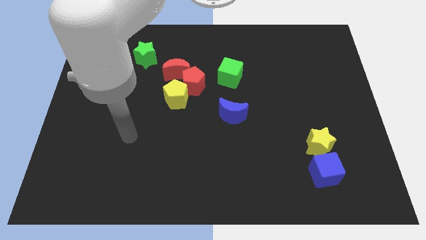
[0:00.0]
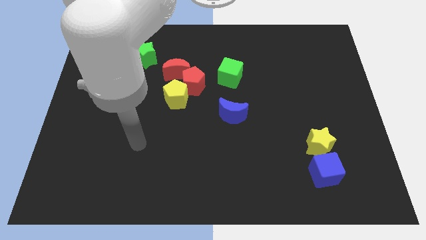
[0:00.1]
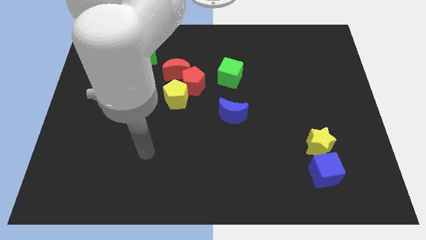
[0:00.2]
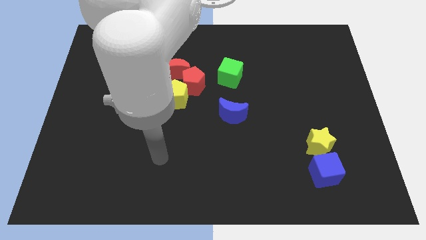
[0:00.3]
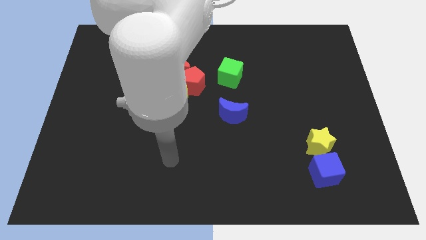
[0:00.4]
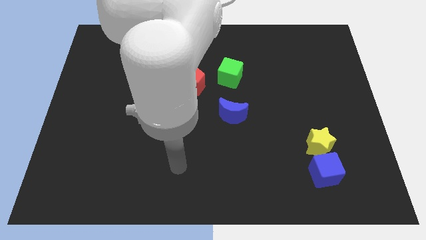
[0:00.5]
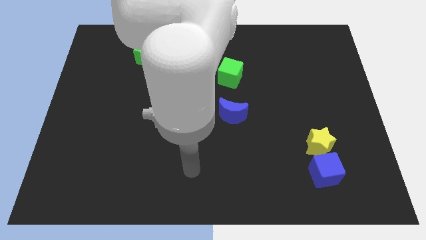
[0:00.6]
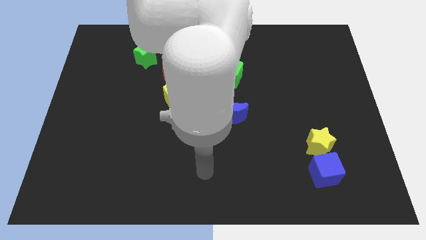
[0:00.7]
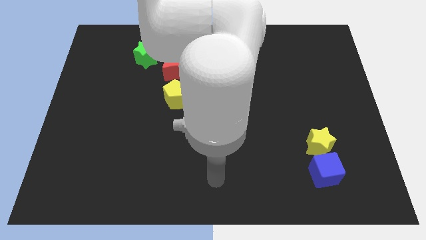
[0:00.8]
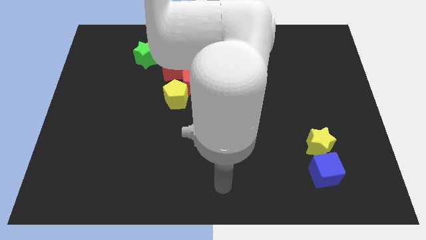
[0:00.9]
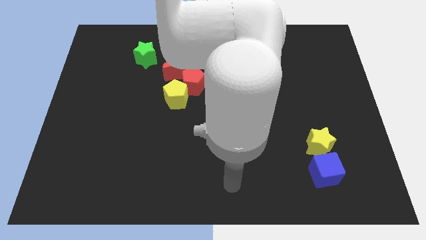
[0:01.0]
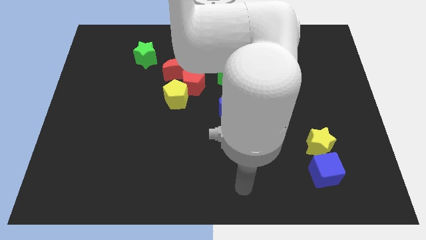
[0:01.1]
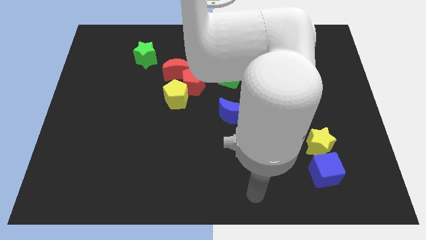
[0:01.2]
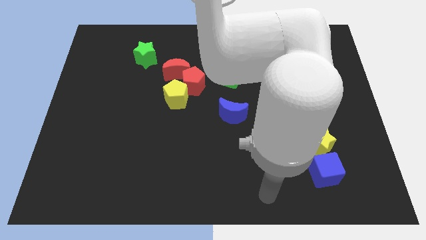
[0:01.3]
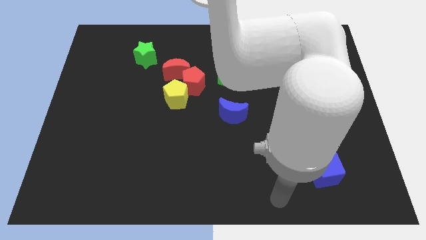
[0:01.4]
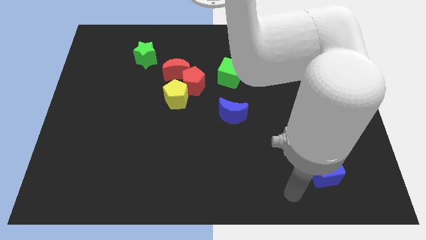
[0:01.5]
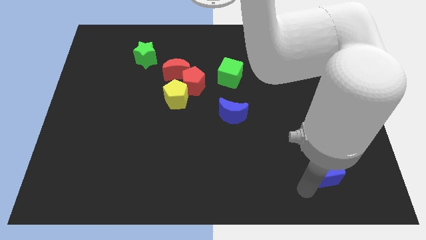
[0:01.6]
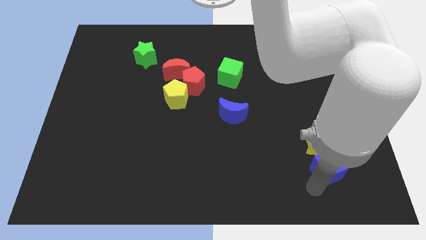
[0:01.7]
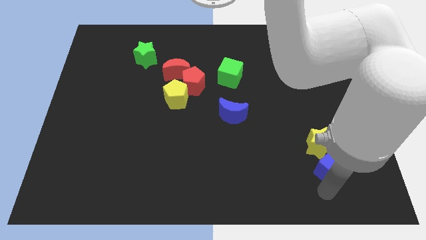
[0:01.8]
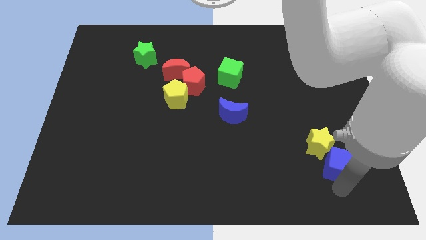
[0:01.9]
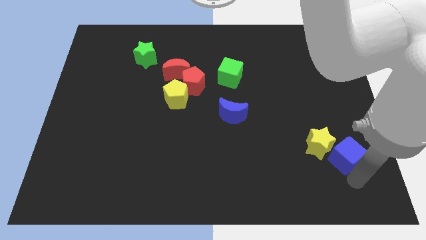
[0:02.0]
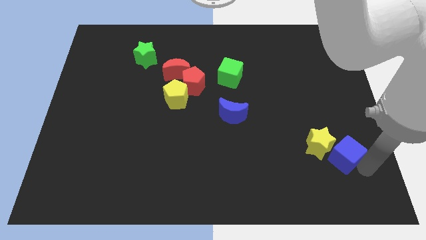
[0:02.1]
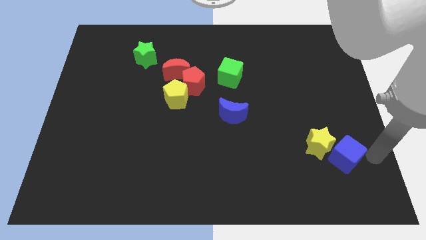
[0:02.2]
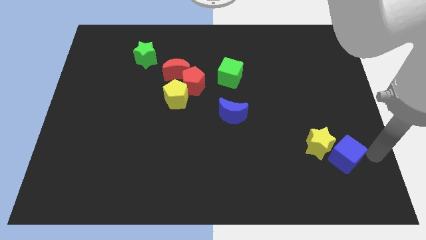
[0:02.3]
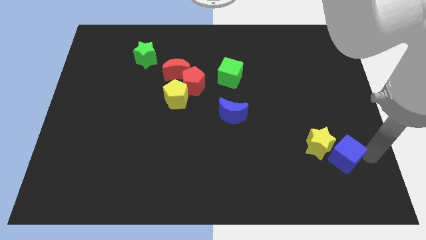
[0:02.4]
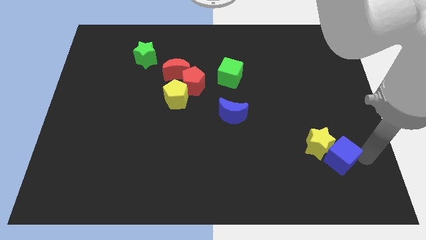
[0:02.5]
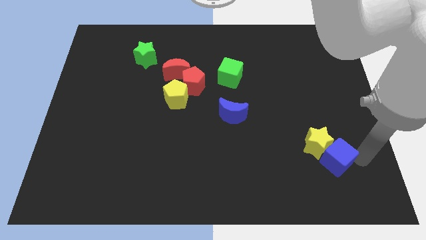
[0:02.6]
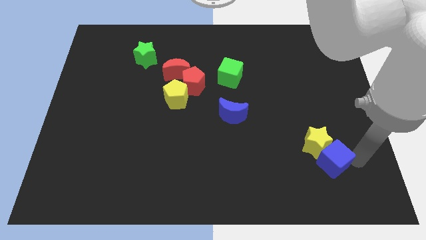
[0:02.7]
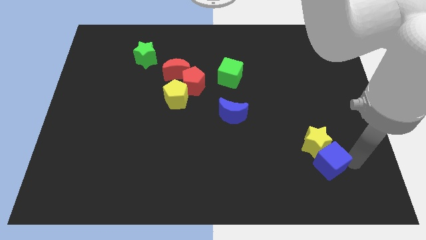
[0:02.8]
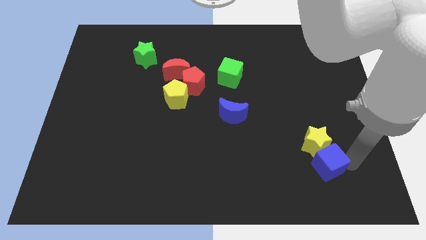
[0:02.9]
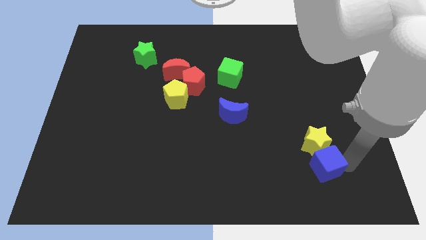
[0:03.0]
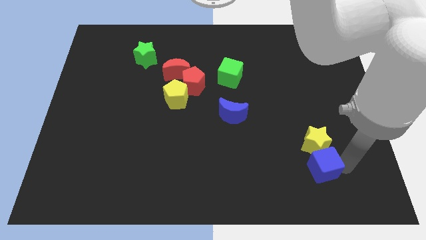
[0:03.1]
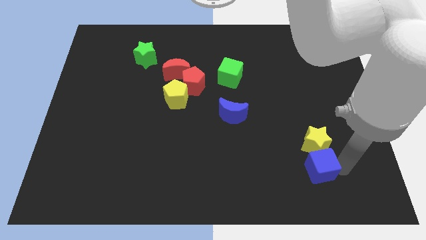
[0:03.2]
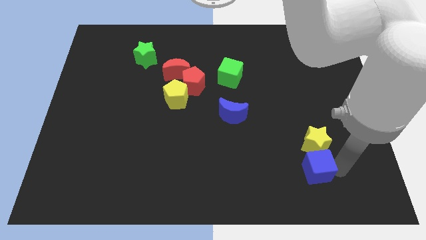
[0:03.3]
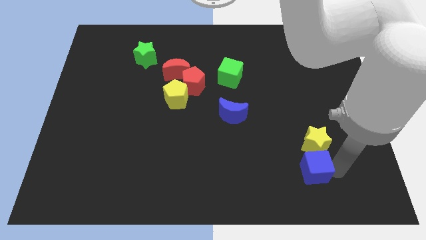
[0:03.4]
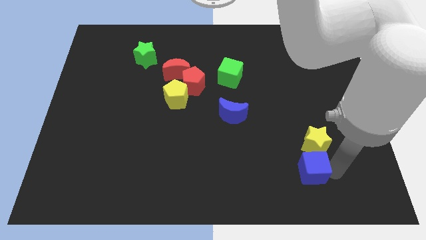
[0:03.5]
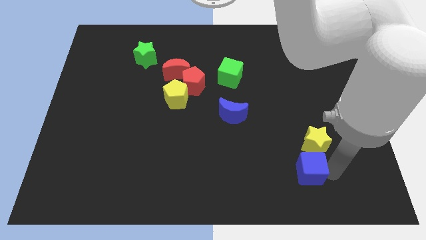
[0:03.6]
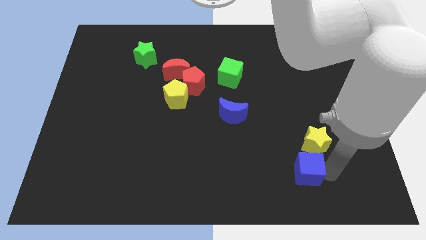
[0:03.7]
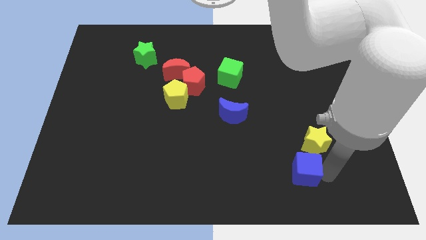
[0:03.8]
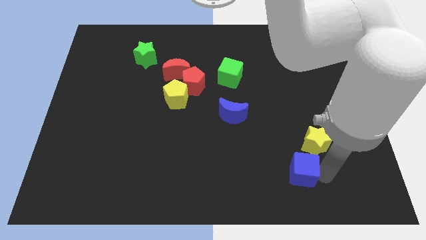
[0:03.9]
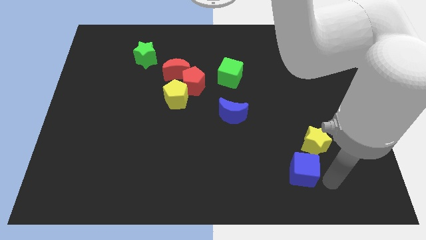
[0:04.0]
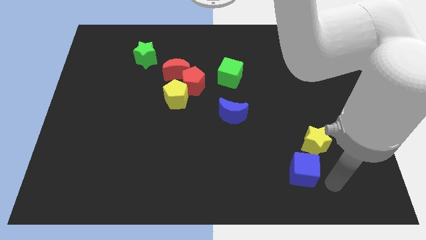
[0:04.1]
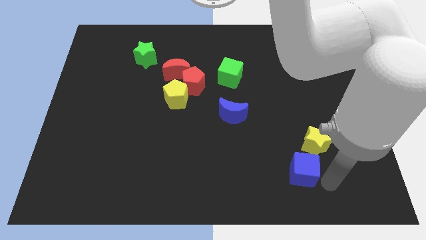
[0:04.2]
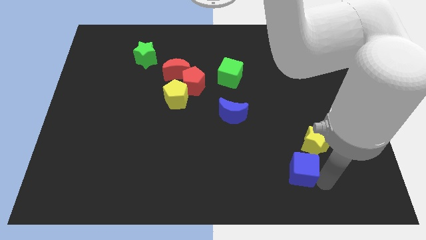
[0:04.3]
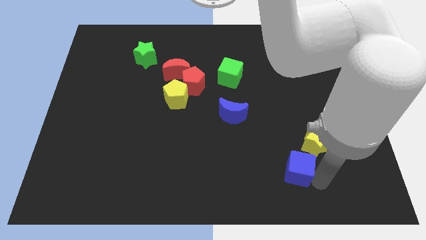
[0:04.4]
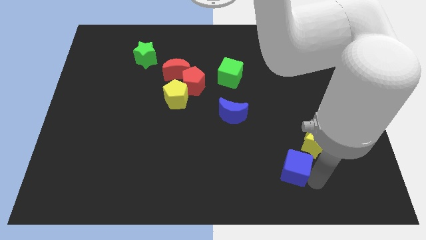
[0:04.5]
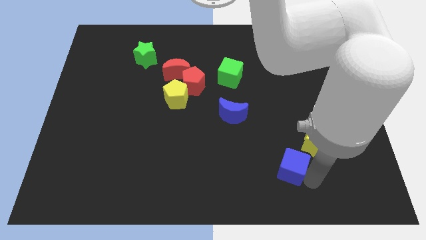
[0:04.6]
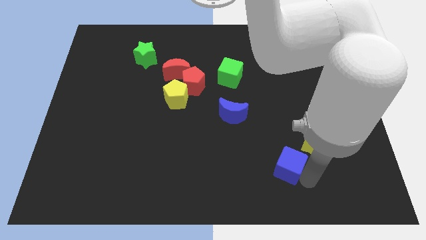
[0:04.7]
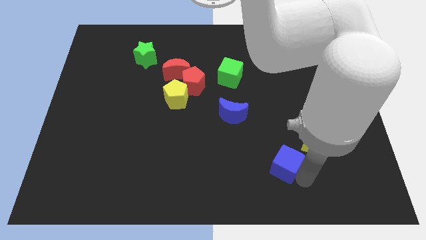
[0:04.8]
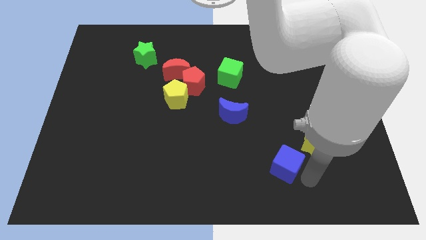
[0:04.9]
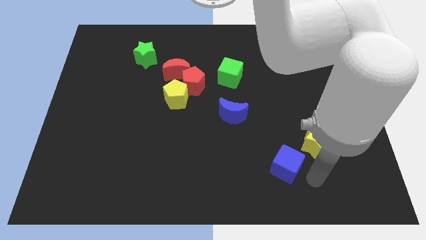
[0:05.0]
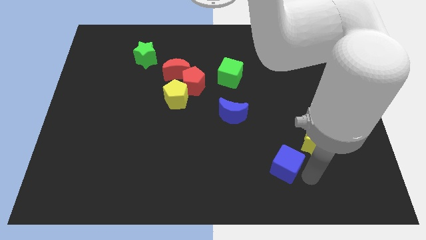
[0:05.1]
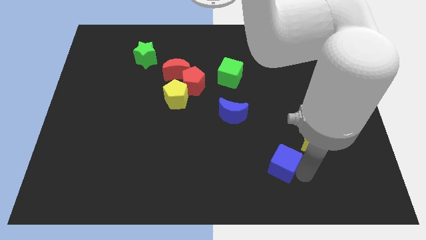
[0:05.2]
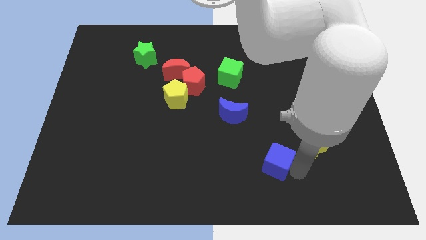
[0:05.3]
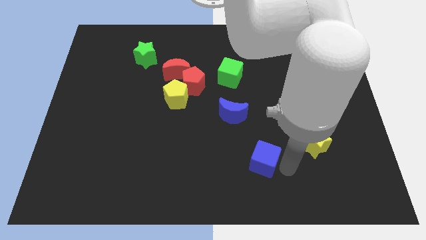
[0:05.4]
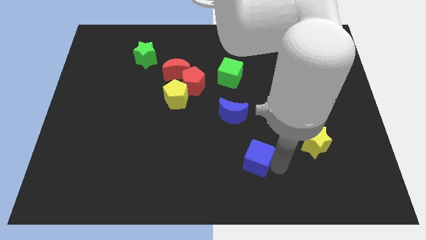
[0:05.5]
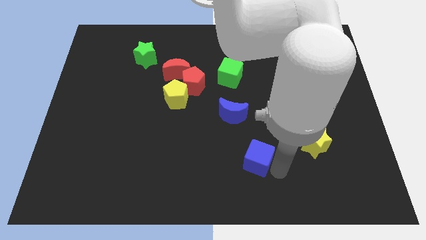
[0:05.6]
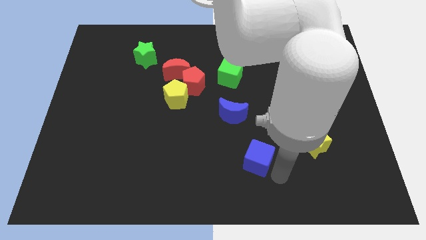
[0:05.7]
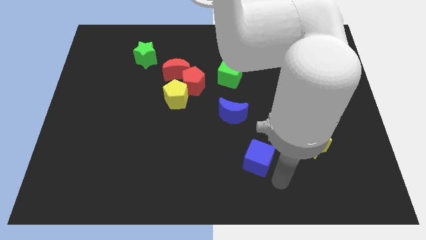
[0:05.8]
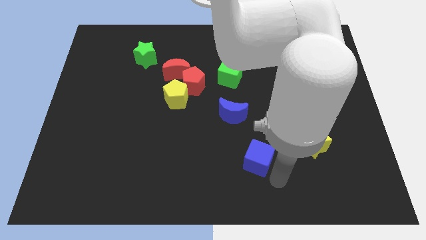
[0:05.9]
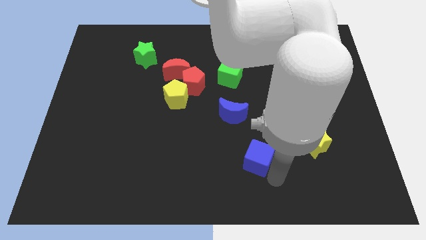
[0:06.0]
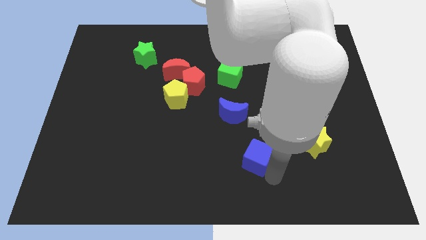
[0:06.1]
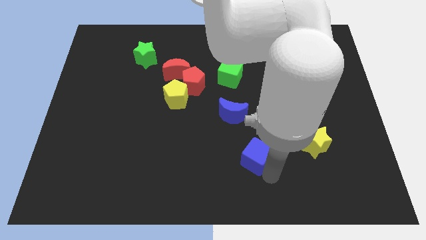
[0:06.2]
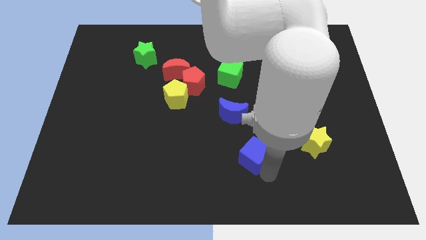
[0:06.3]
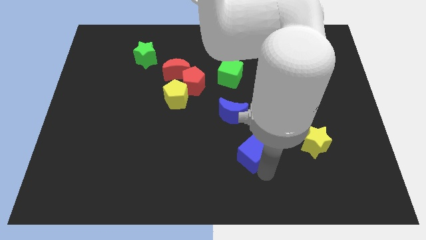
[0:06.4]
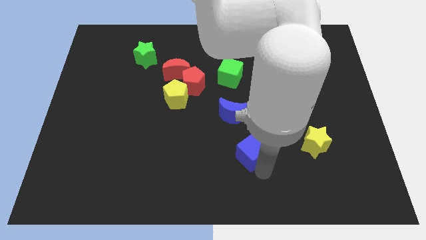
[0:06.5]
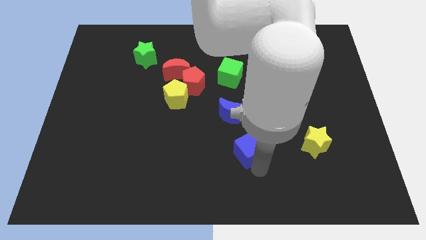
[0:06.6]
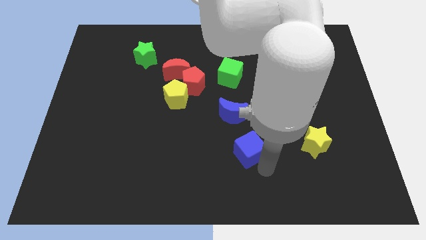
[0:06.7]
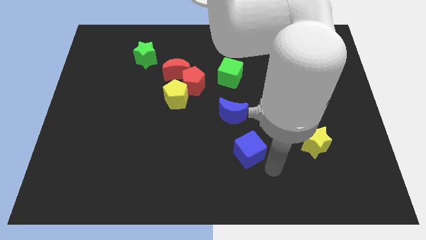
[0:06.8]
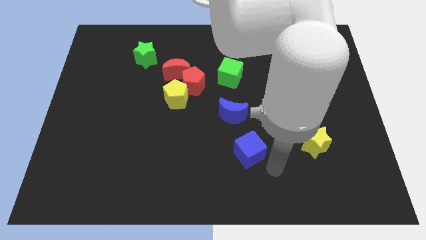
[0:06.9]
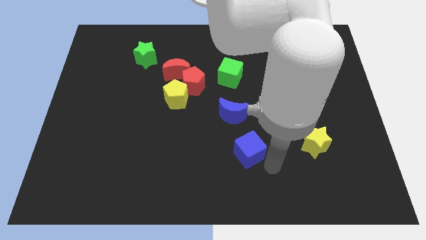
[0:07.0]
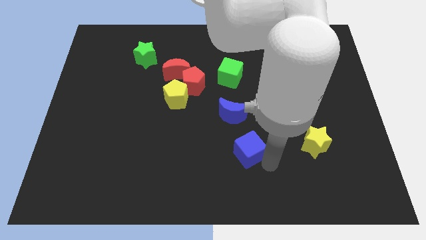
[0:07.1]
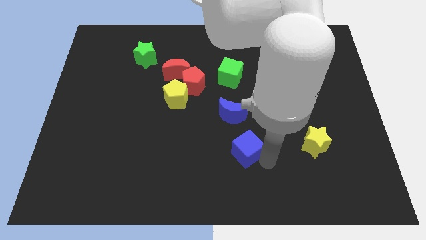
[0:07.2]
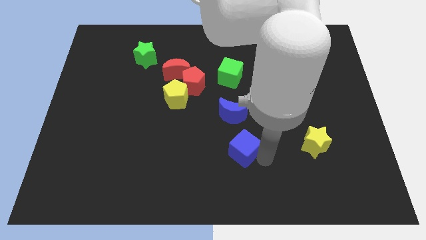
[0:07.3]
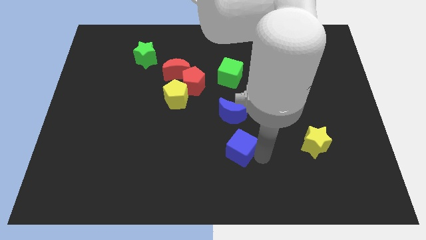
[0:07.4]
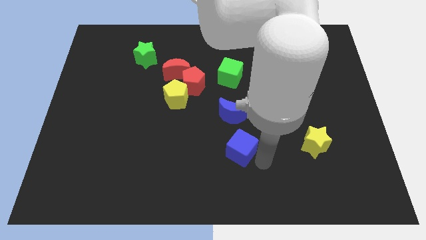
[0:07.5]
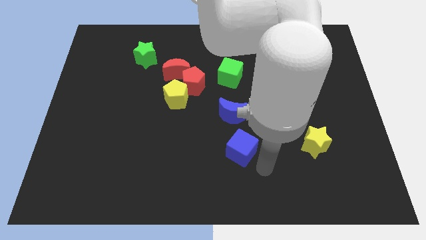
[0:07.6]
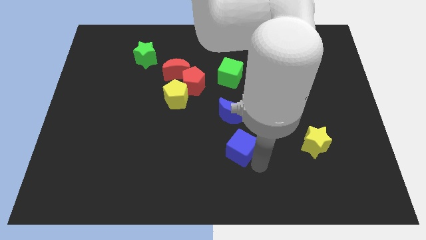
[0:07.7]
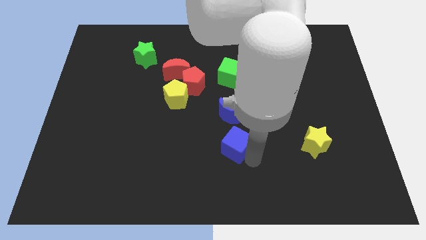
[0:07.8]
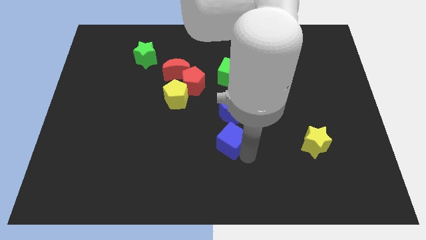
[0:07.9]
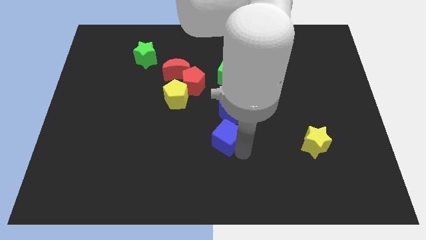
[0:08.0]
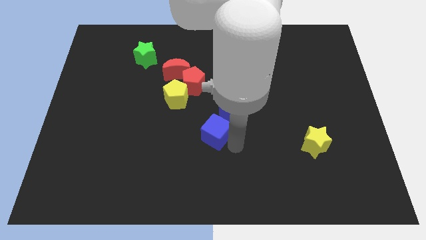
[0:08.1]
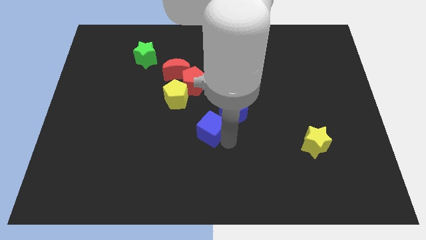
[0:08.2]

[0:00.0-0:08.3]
push the blue cube to the bottom side of the red pentagon
